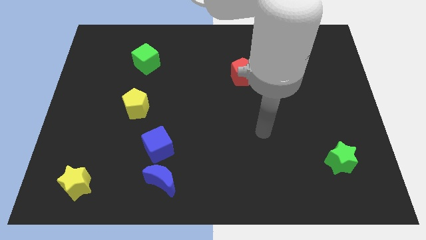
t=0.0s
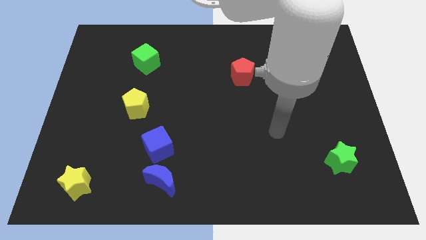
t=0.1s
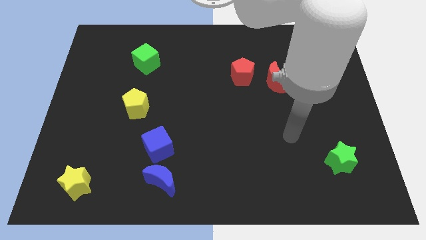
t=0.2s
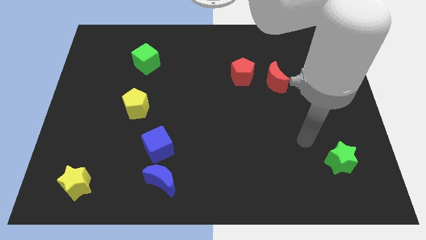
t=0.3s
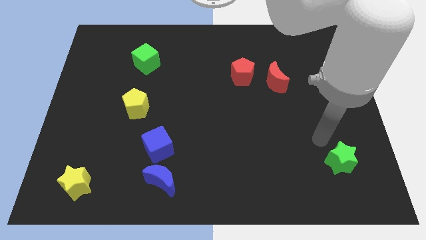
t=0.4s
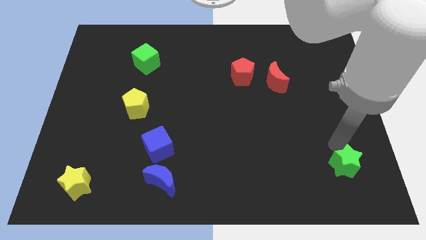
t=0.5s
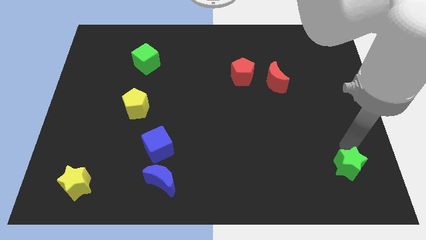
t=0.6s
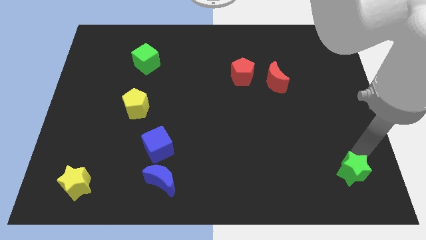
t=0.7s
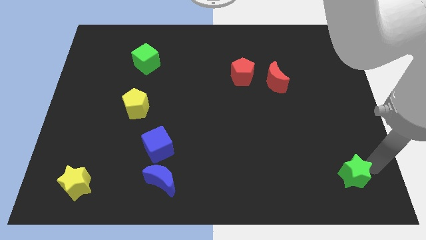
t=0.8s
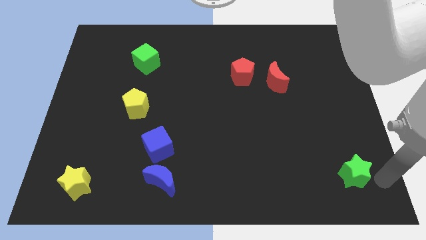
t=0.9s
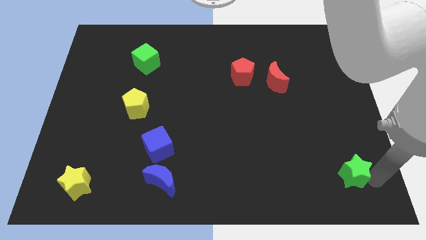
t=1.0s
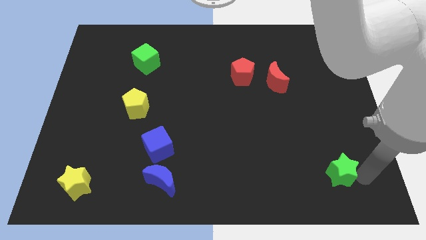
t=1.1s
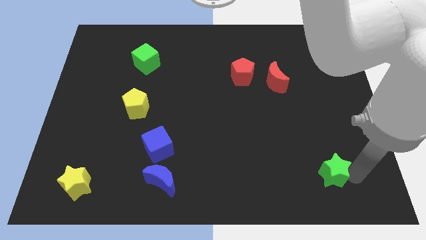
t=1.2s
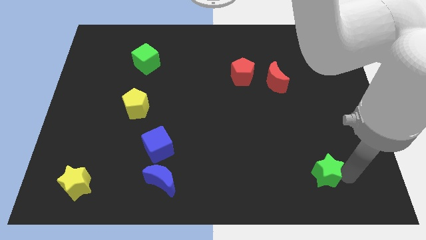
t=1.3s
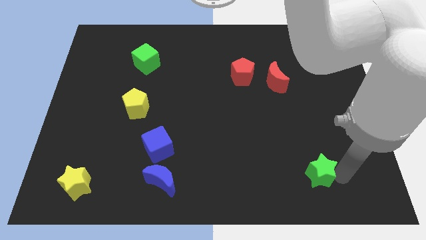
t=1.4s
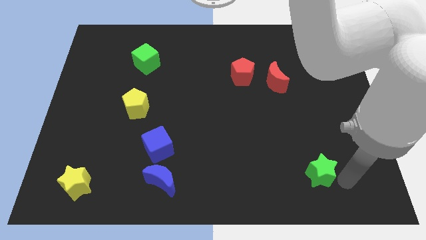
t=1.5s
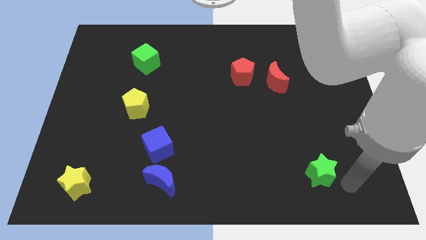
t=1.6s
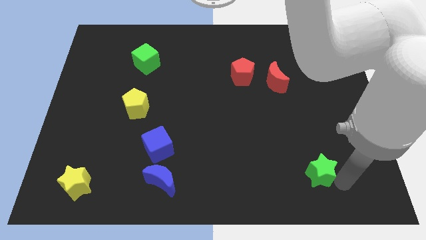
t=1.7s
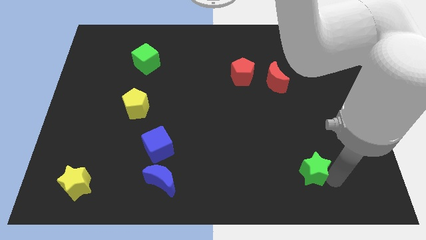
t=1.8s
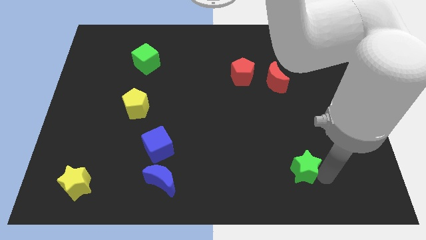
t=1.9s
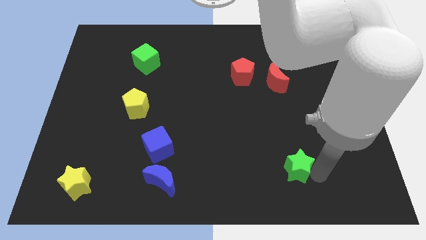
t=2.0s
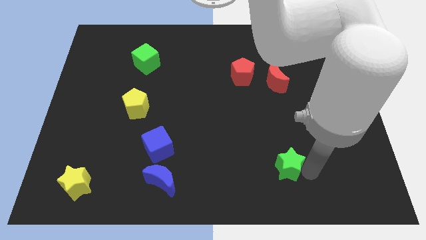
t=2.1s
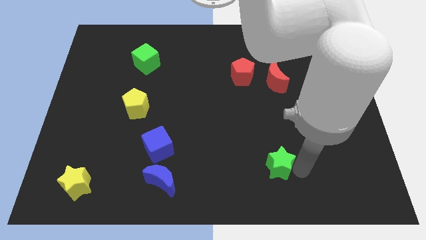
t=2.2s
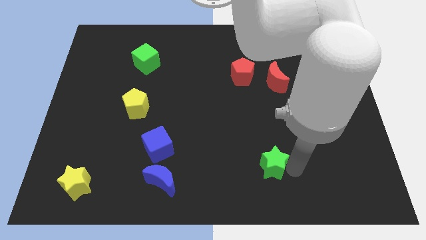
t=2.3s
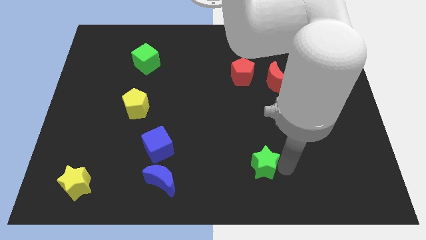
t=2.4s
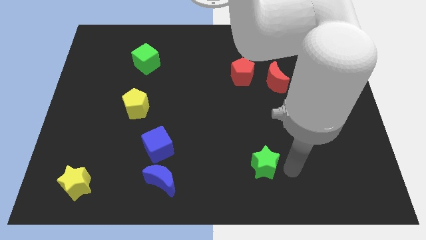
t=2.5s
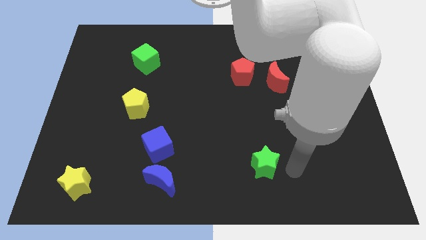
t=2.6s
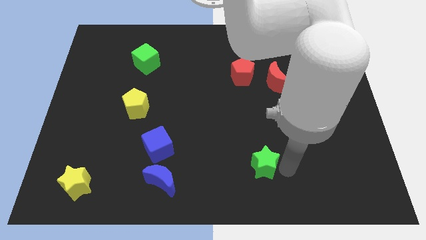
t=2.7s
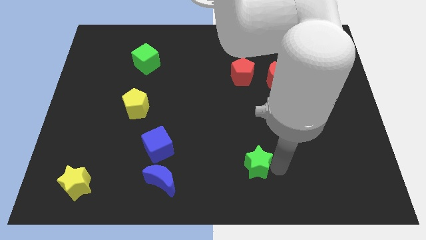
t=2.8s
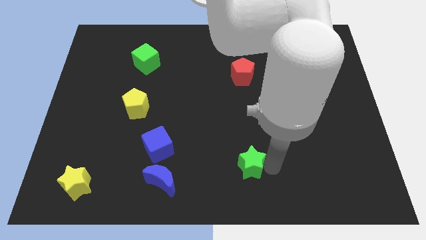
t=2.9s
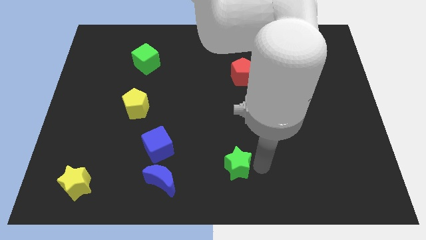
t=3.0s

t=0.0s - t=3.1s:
move the green star to the left

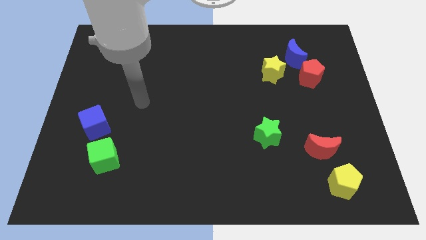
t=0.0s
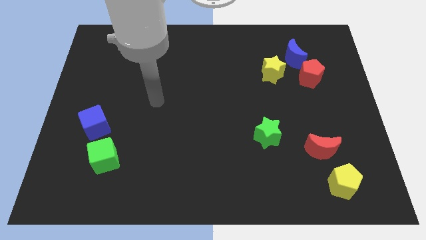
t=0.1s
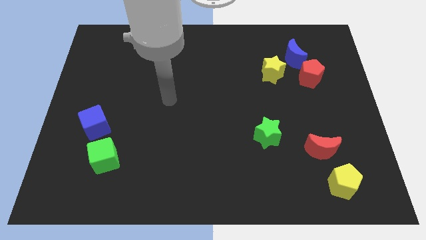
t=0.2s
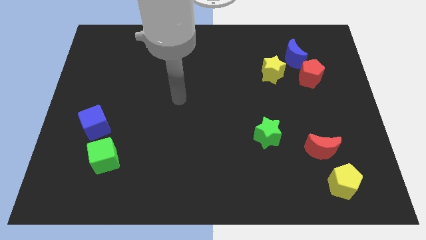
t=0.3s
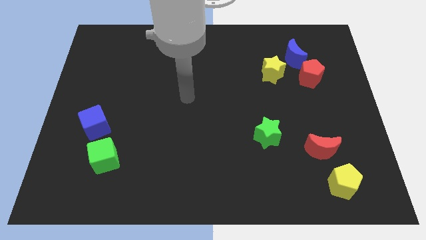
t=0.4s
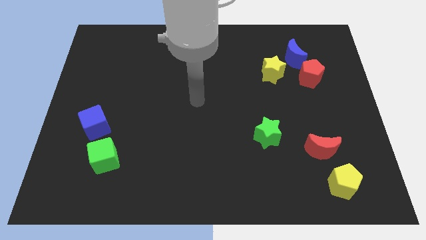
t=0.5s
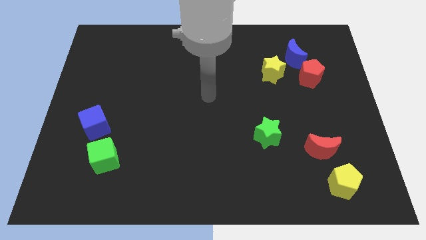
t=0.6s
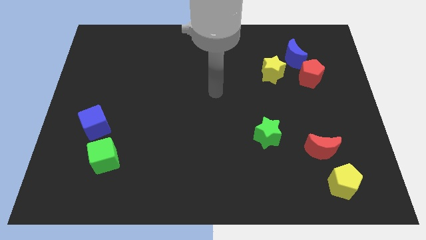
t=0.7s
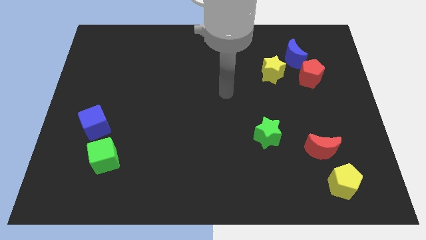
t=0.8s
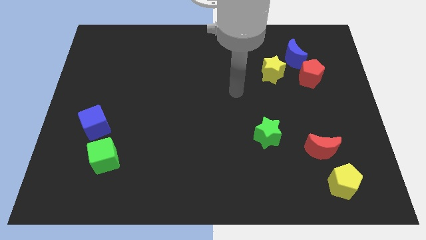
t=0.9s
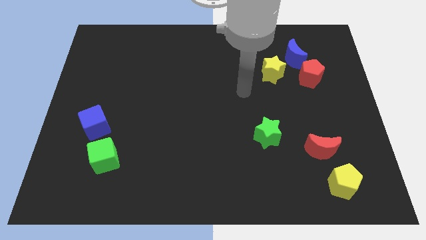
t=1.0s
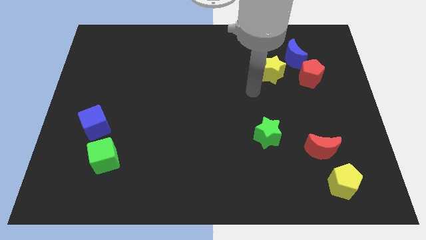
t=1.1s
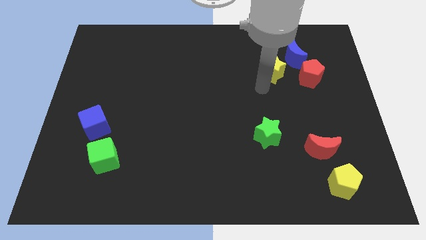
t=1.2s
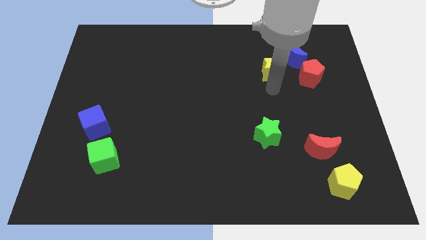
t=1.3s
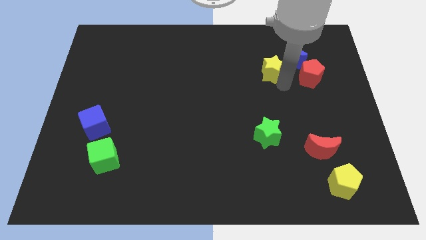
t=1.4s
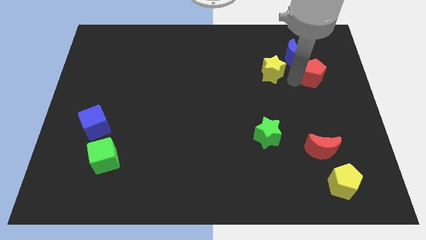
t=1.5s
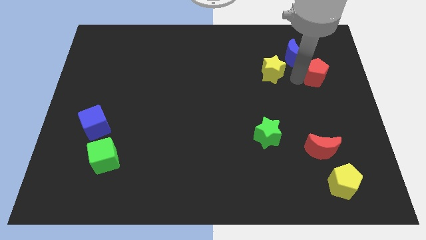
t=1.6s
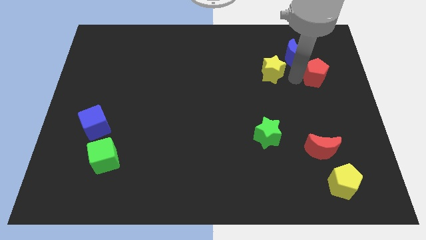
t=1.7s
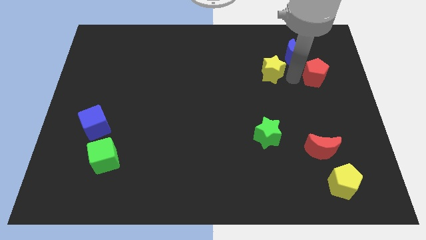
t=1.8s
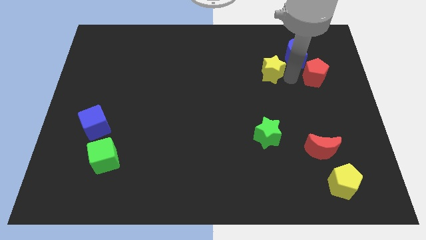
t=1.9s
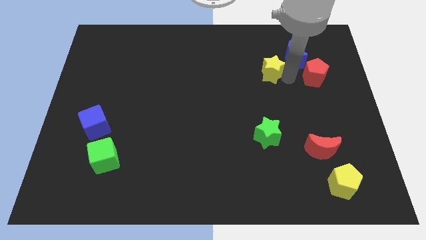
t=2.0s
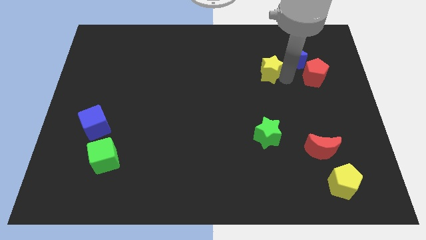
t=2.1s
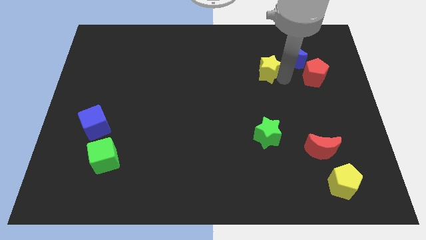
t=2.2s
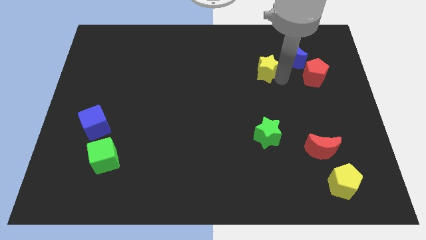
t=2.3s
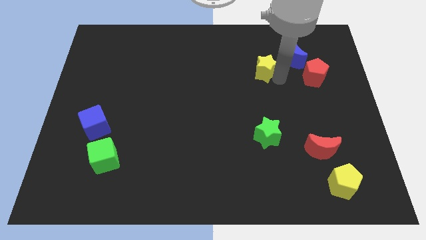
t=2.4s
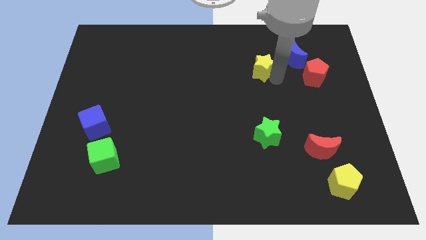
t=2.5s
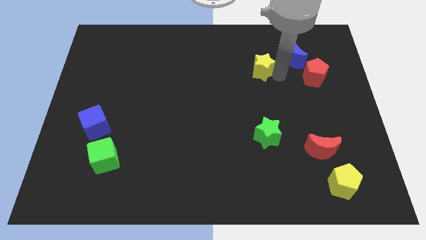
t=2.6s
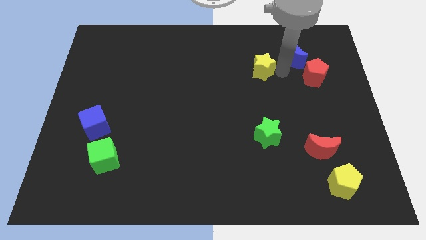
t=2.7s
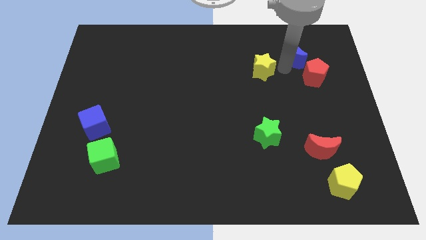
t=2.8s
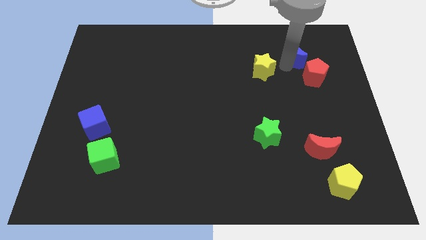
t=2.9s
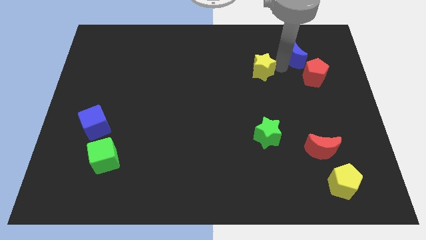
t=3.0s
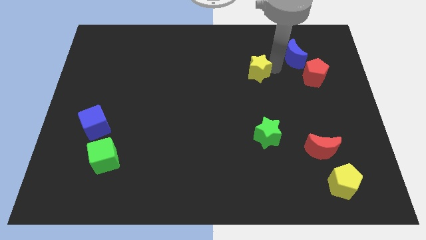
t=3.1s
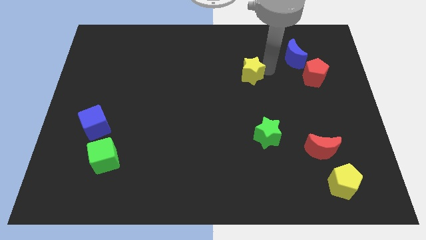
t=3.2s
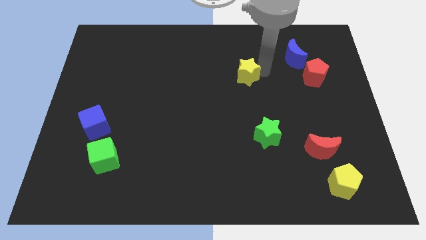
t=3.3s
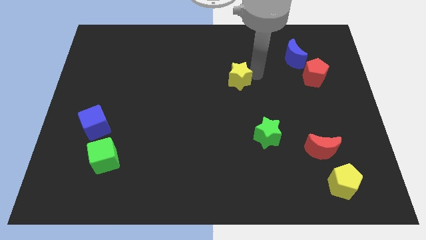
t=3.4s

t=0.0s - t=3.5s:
slightly move the yellow star to the left

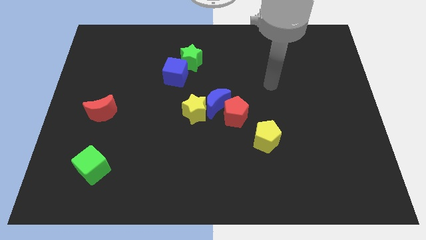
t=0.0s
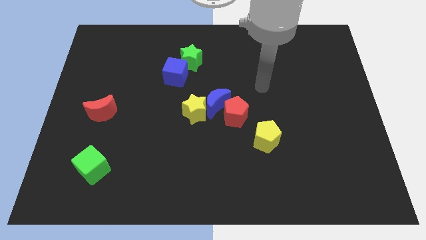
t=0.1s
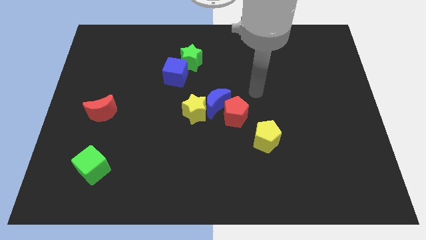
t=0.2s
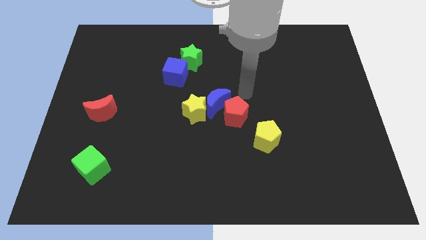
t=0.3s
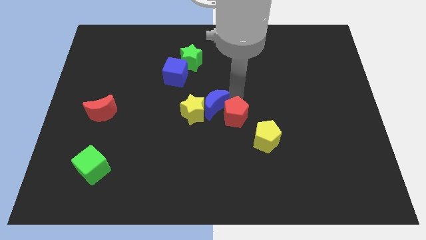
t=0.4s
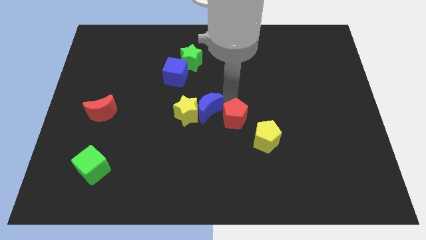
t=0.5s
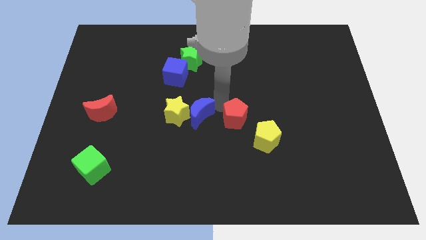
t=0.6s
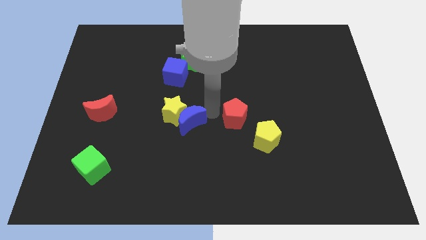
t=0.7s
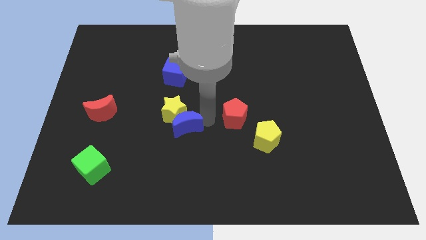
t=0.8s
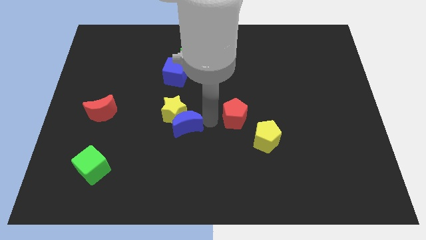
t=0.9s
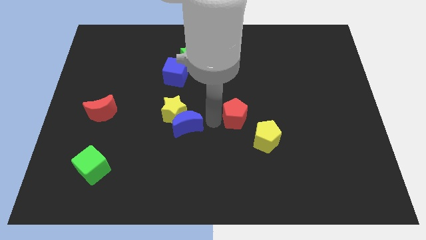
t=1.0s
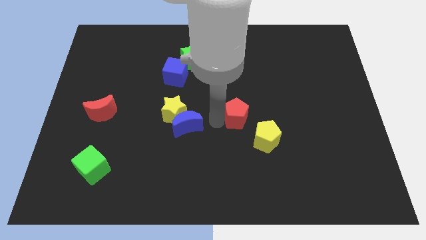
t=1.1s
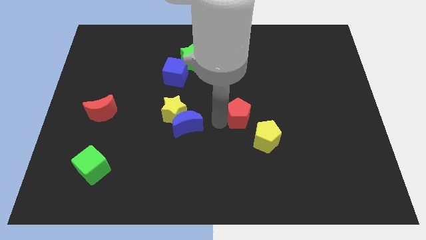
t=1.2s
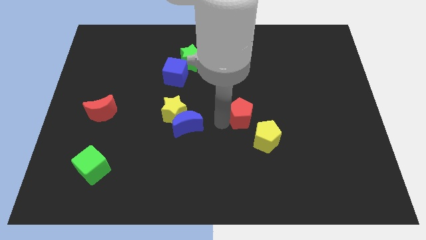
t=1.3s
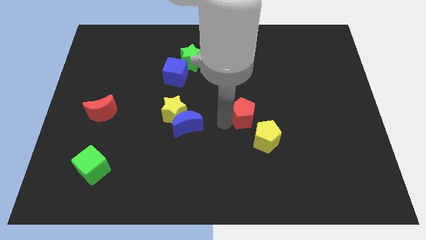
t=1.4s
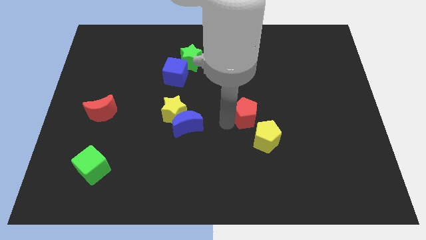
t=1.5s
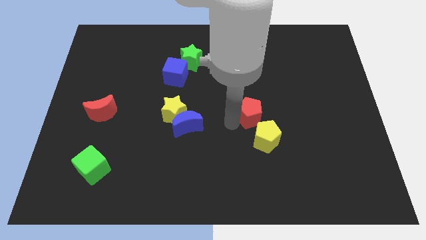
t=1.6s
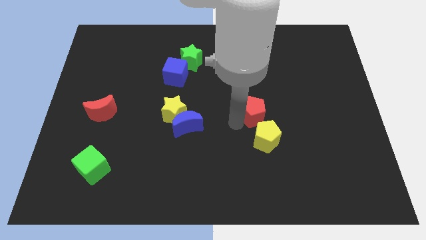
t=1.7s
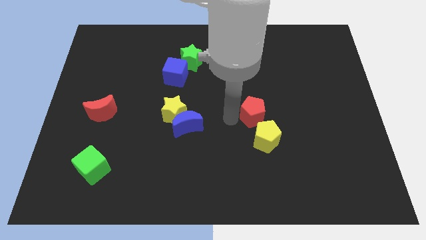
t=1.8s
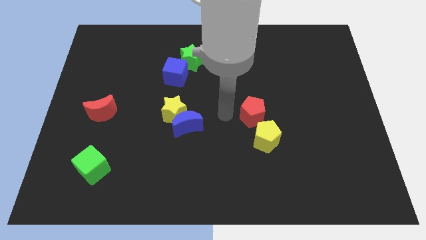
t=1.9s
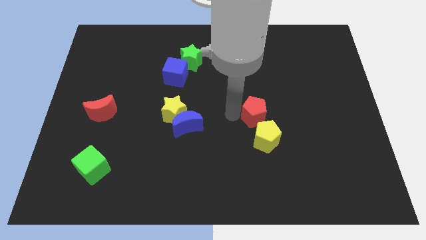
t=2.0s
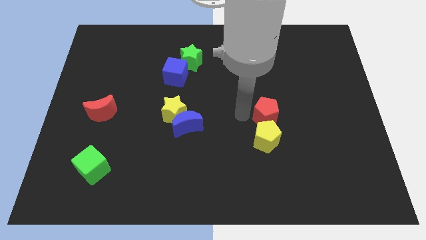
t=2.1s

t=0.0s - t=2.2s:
push the red pentagon to the right slightly
